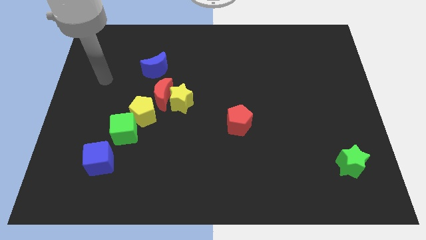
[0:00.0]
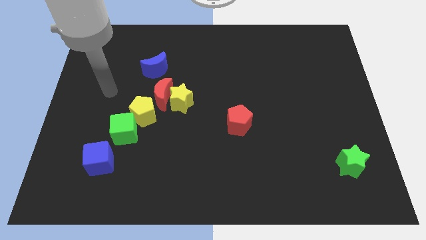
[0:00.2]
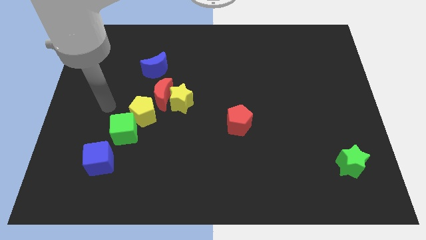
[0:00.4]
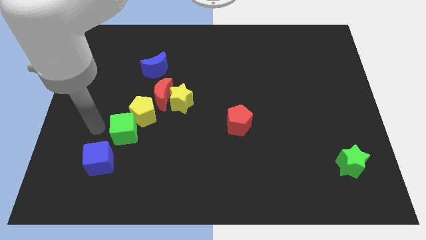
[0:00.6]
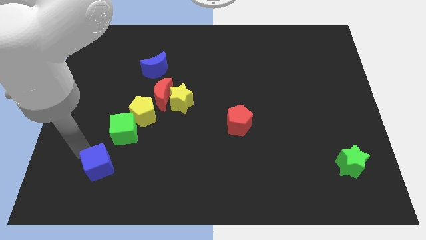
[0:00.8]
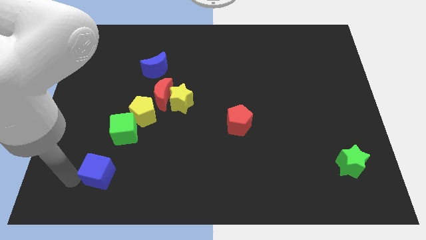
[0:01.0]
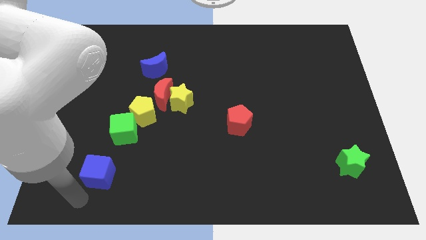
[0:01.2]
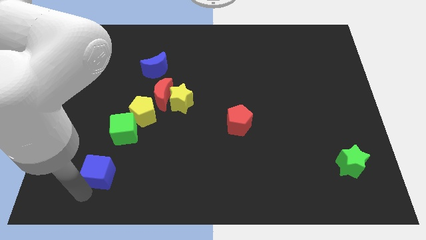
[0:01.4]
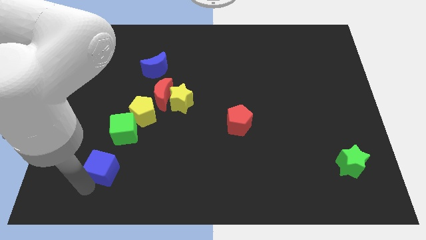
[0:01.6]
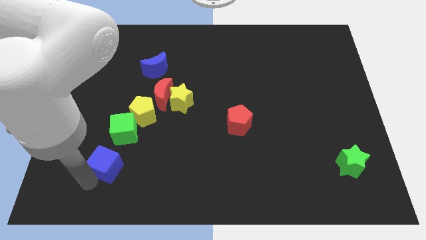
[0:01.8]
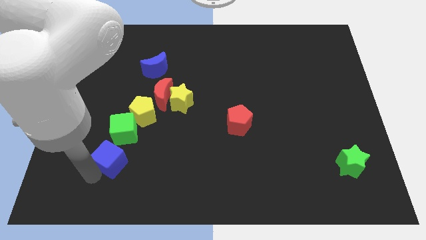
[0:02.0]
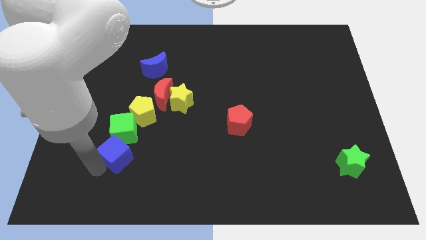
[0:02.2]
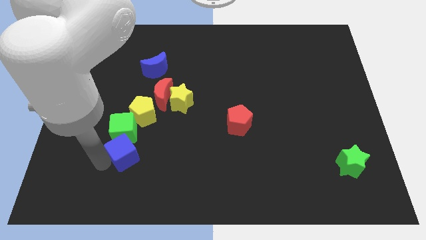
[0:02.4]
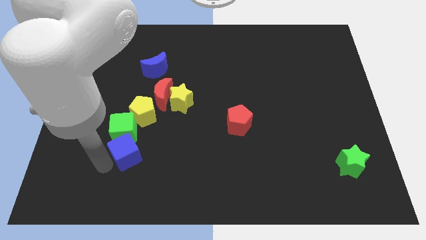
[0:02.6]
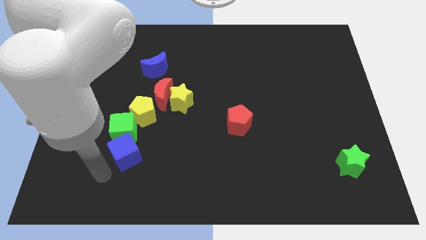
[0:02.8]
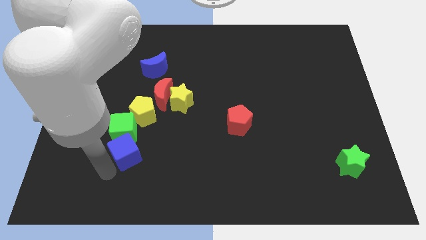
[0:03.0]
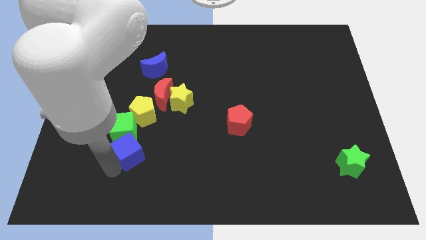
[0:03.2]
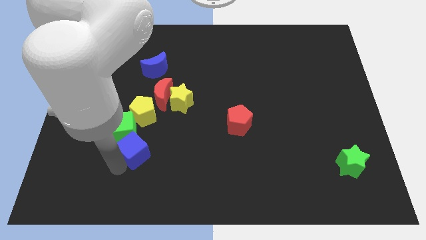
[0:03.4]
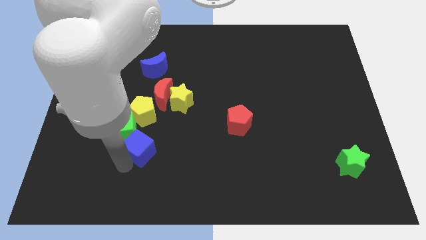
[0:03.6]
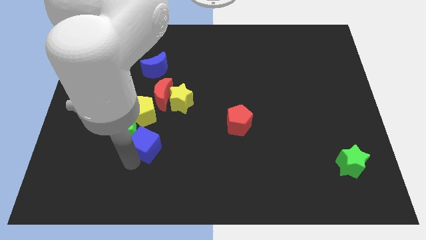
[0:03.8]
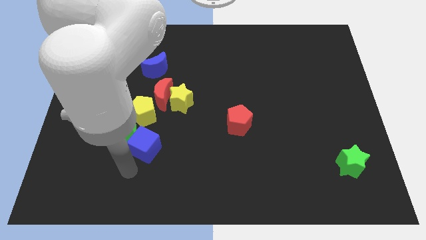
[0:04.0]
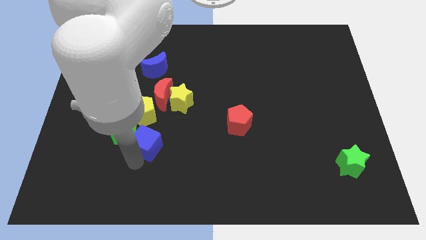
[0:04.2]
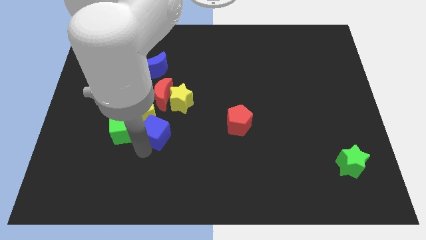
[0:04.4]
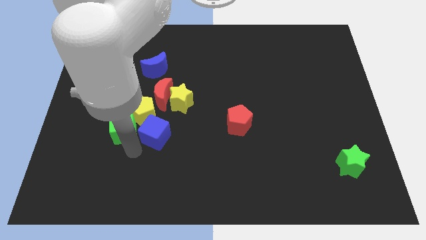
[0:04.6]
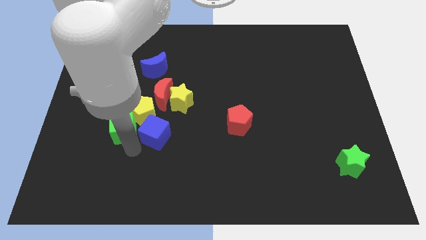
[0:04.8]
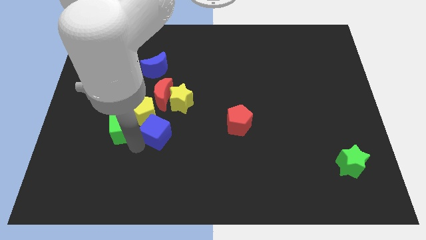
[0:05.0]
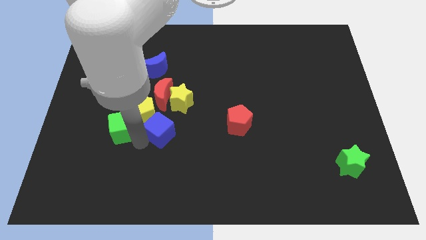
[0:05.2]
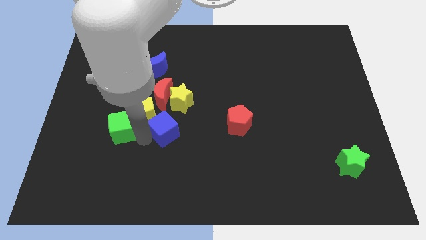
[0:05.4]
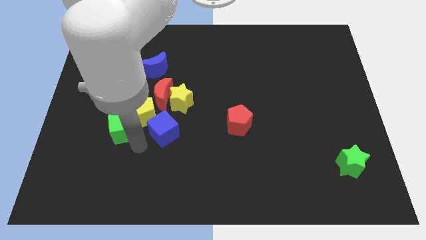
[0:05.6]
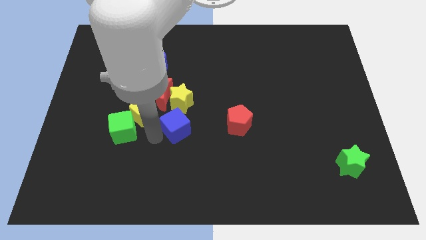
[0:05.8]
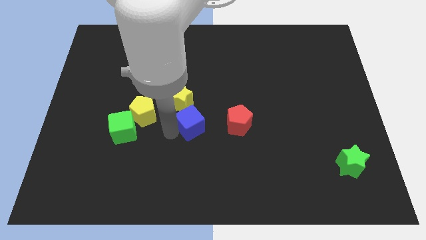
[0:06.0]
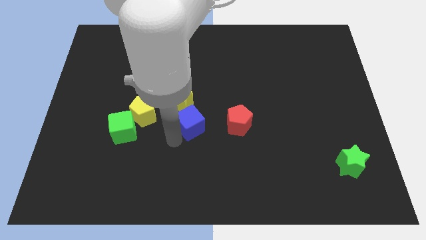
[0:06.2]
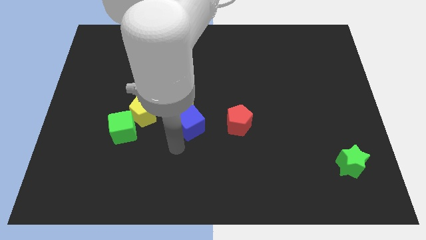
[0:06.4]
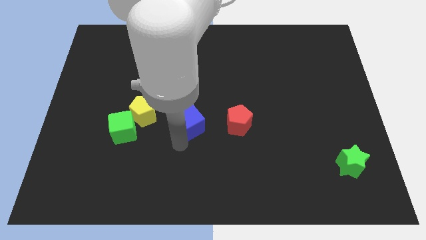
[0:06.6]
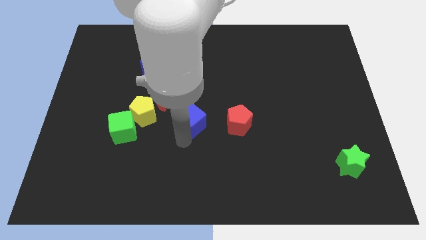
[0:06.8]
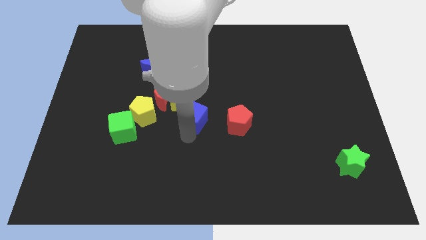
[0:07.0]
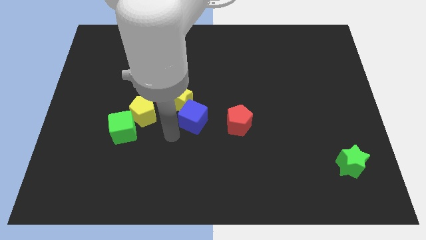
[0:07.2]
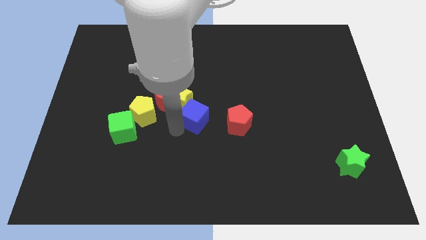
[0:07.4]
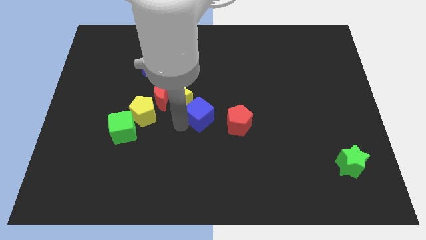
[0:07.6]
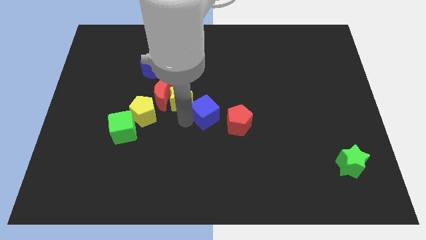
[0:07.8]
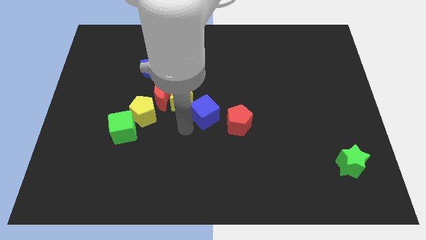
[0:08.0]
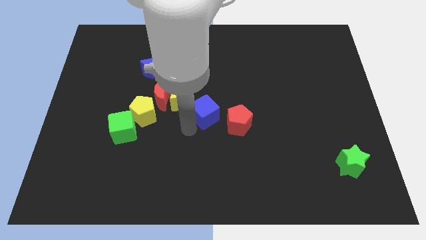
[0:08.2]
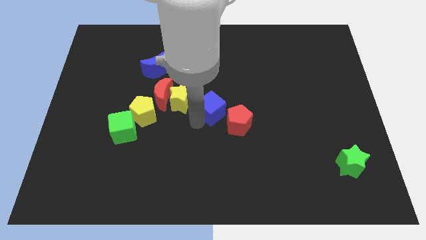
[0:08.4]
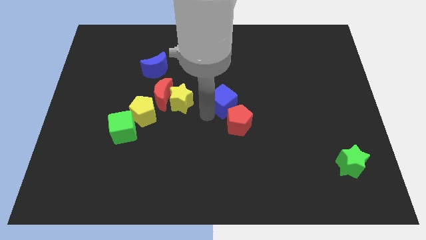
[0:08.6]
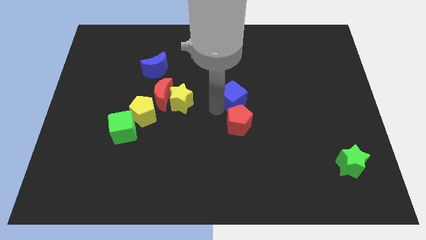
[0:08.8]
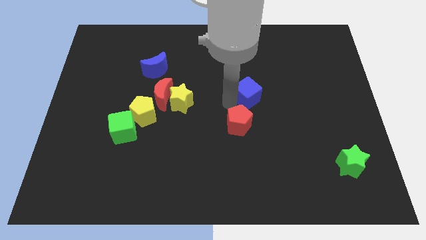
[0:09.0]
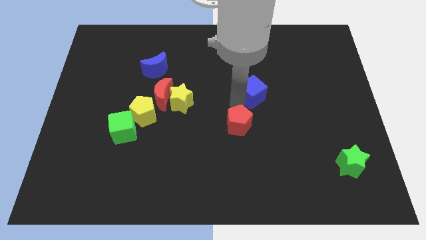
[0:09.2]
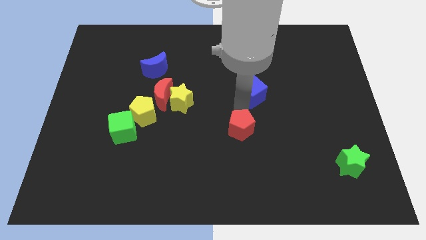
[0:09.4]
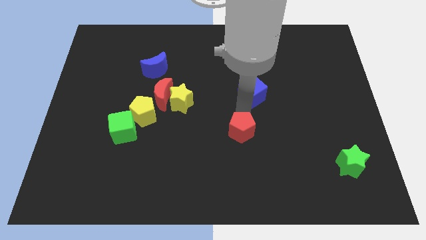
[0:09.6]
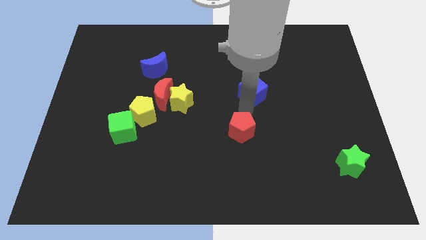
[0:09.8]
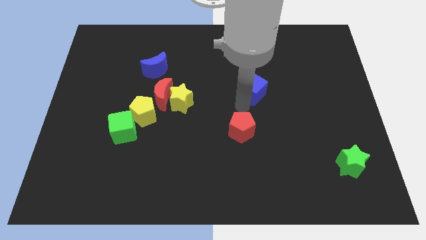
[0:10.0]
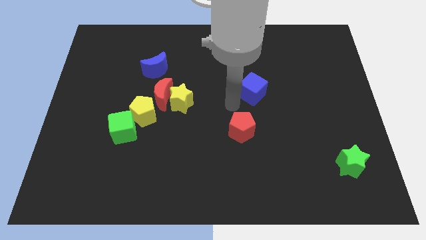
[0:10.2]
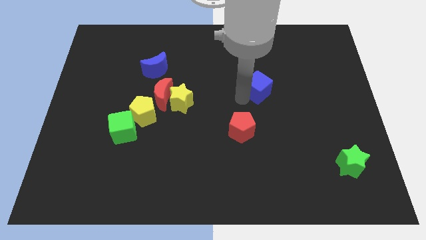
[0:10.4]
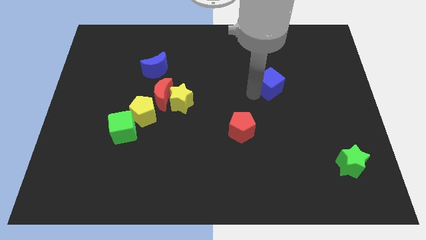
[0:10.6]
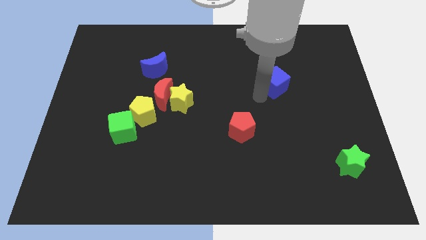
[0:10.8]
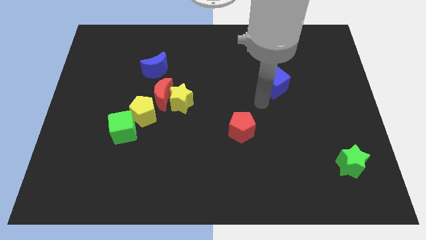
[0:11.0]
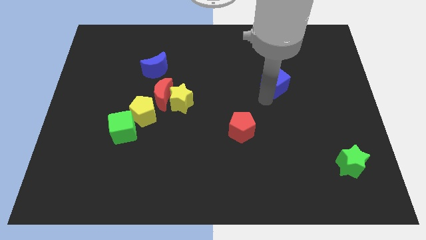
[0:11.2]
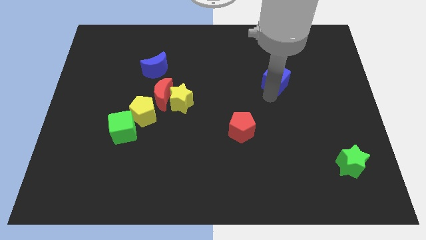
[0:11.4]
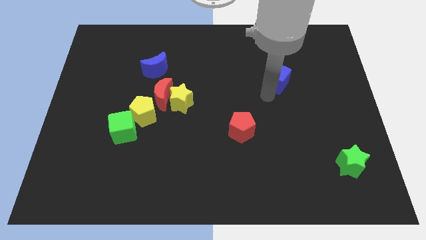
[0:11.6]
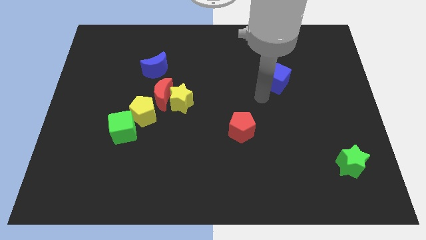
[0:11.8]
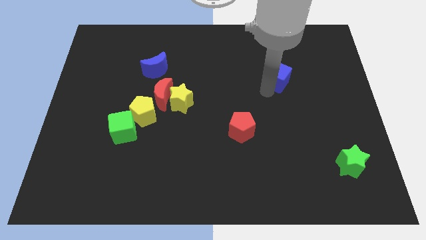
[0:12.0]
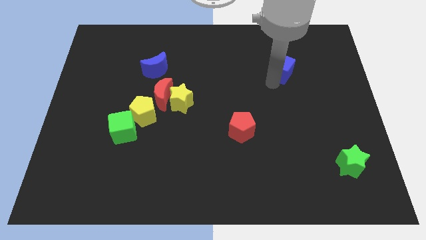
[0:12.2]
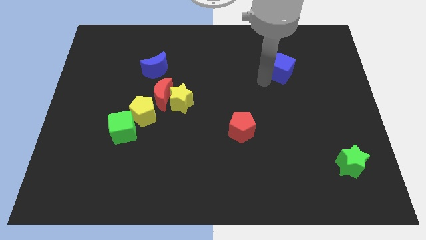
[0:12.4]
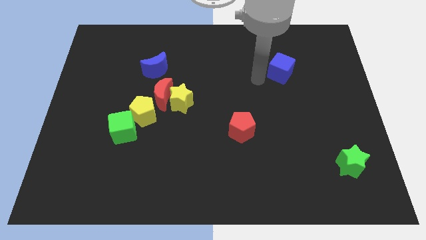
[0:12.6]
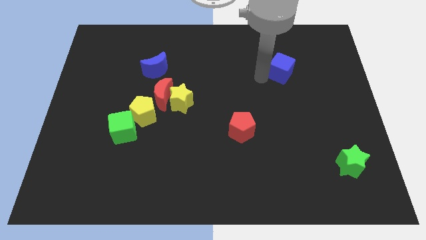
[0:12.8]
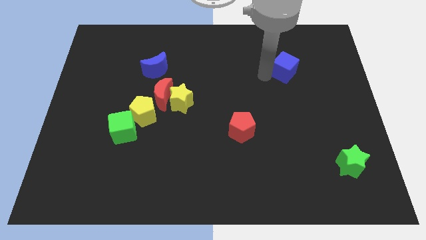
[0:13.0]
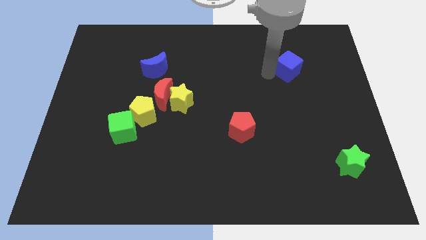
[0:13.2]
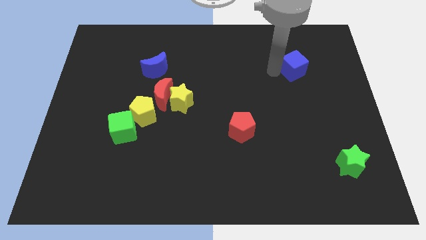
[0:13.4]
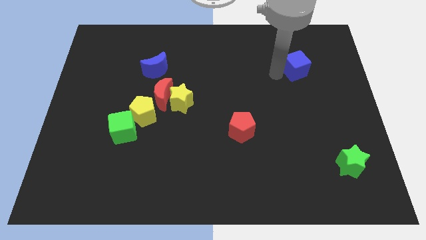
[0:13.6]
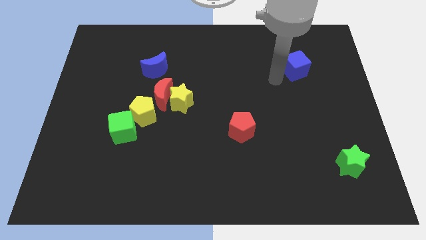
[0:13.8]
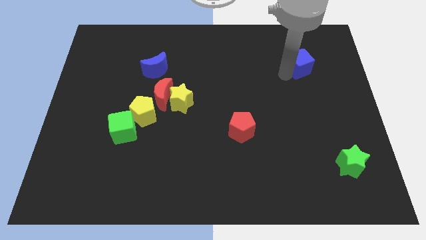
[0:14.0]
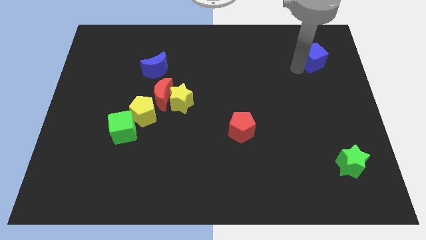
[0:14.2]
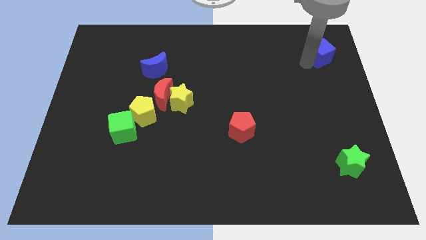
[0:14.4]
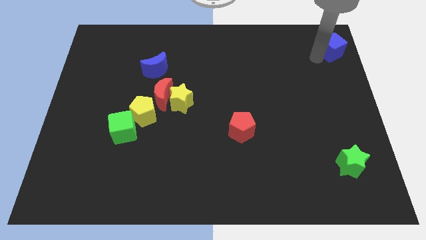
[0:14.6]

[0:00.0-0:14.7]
push the blue cube to the top right of the board

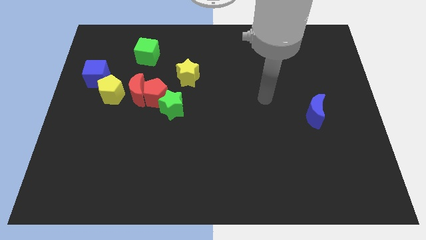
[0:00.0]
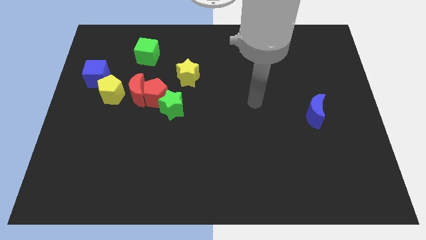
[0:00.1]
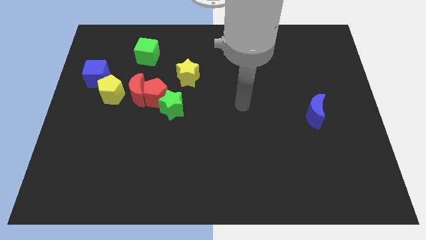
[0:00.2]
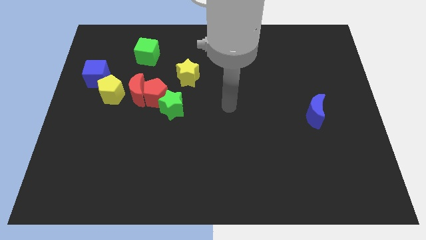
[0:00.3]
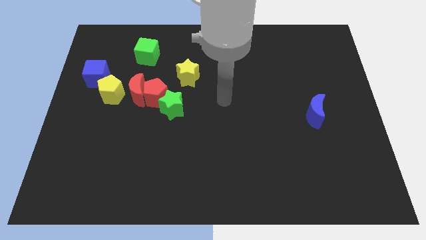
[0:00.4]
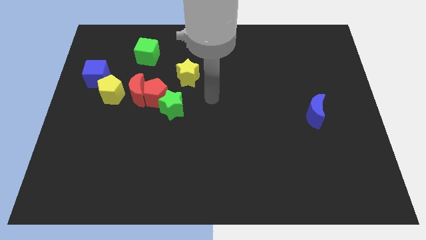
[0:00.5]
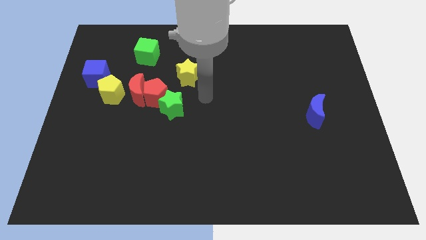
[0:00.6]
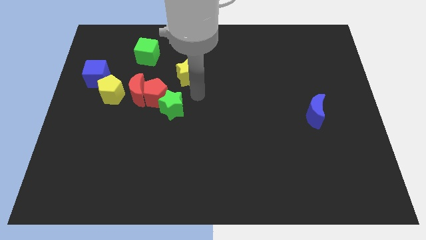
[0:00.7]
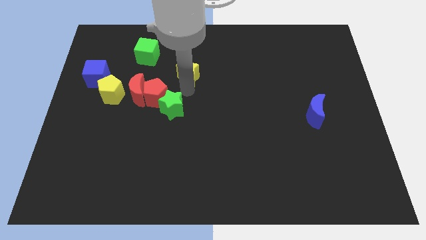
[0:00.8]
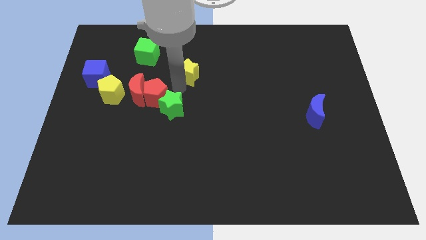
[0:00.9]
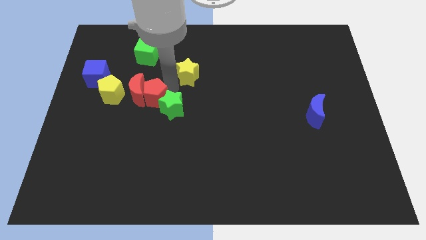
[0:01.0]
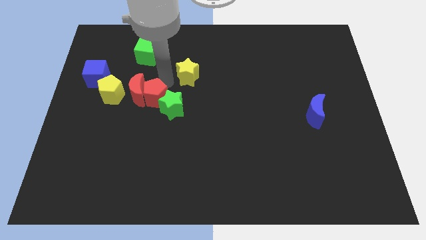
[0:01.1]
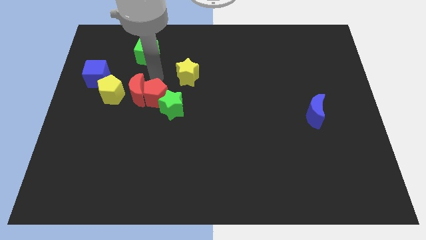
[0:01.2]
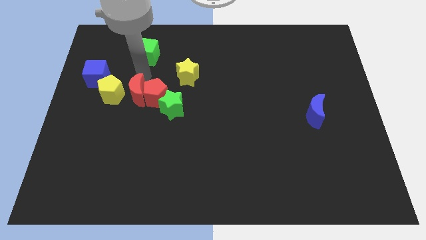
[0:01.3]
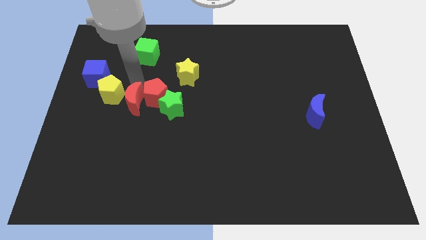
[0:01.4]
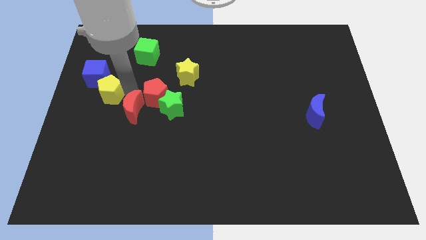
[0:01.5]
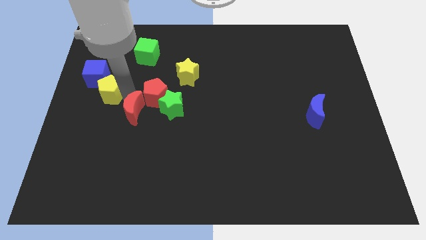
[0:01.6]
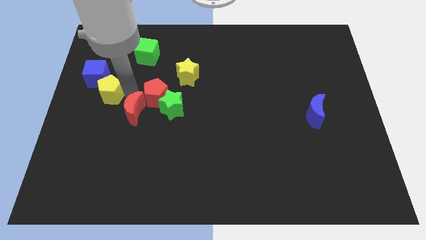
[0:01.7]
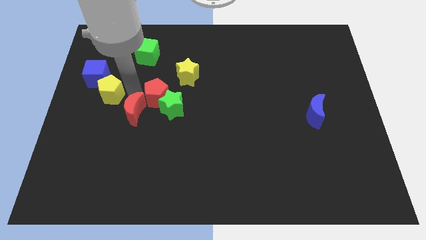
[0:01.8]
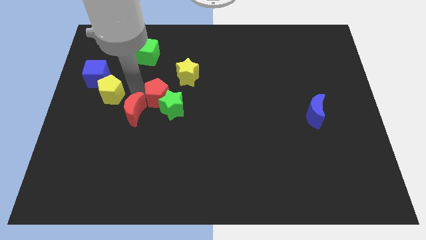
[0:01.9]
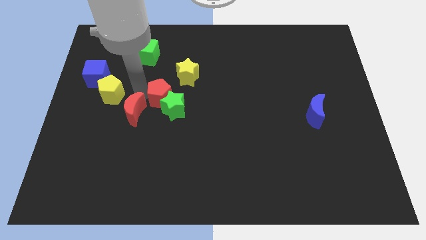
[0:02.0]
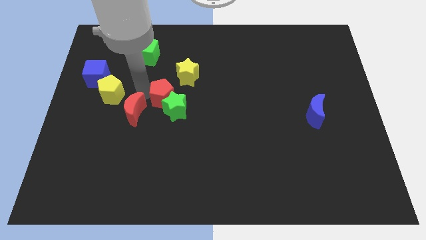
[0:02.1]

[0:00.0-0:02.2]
put the red pentagon to the center of the board
